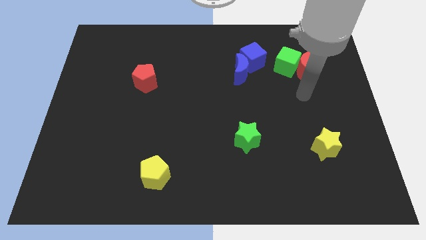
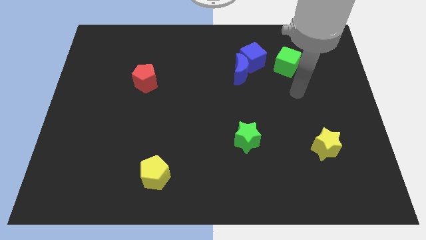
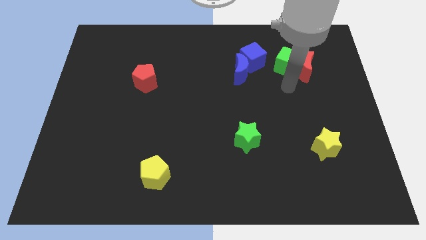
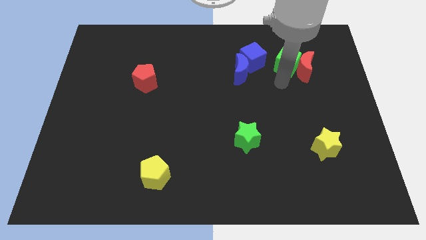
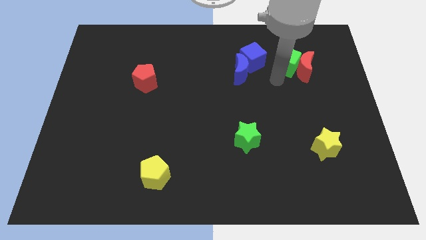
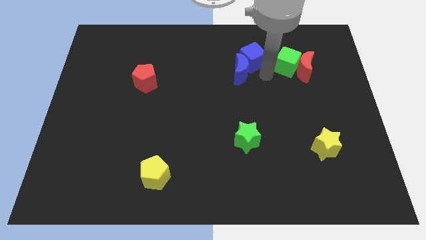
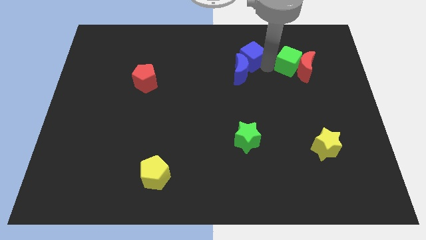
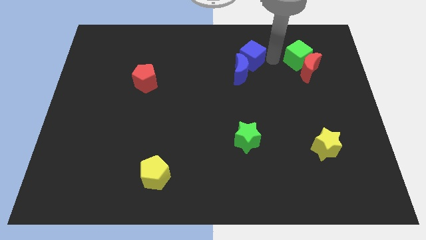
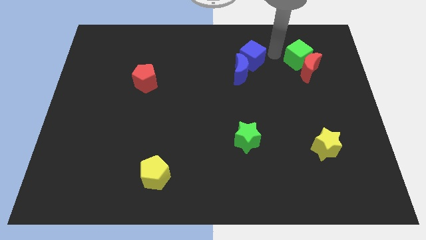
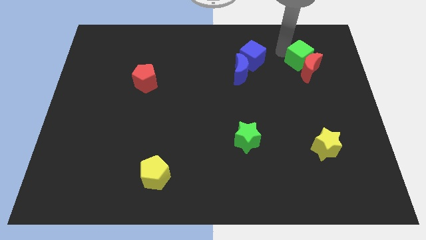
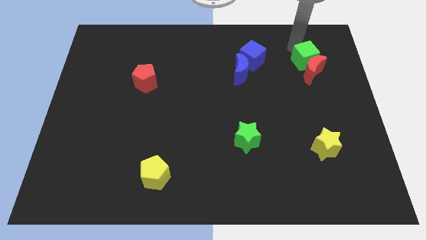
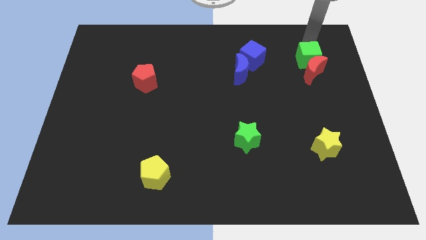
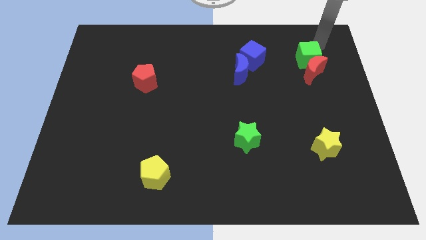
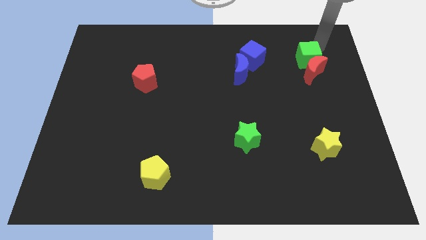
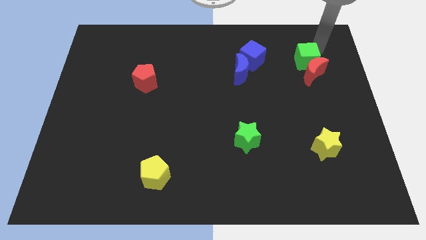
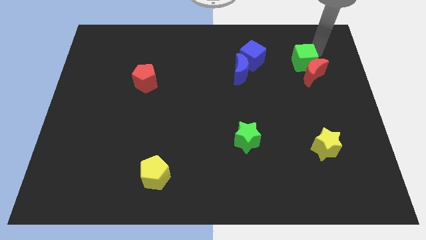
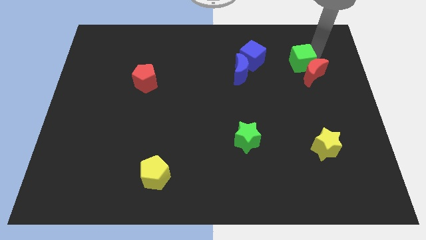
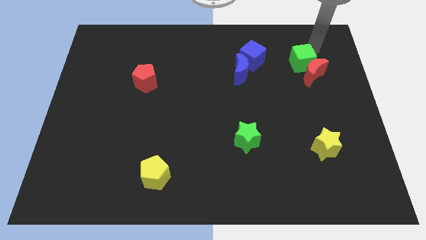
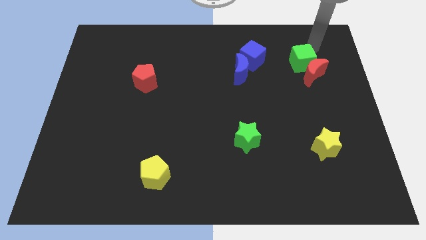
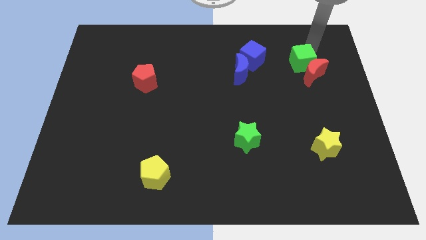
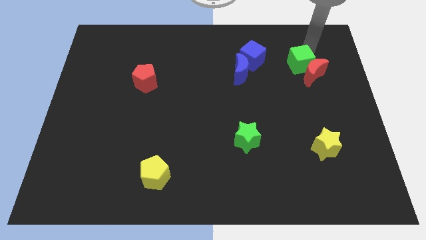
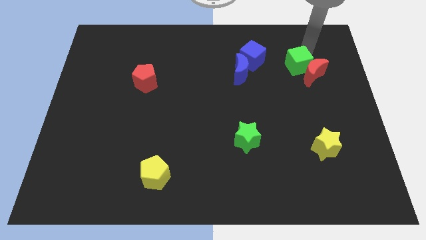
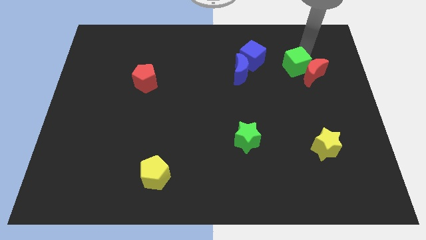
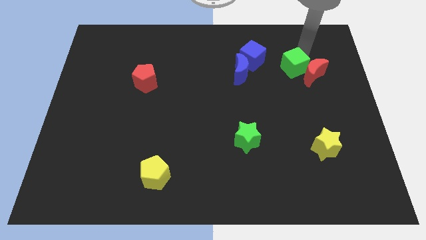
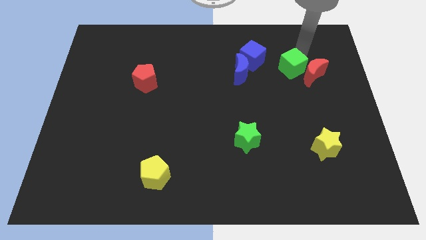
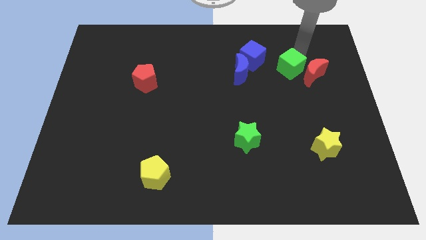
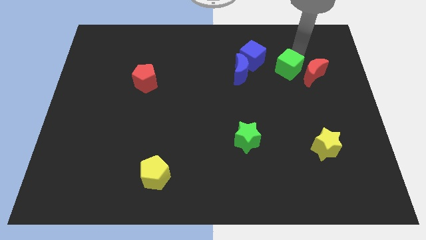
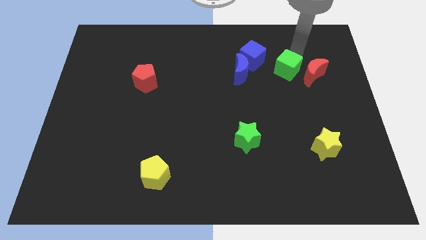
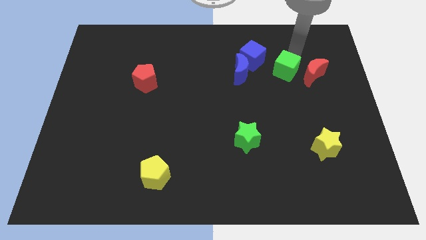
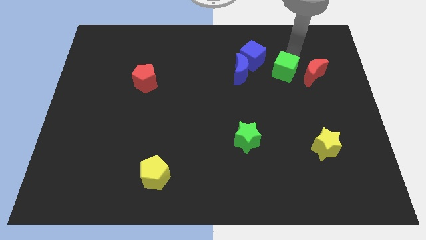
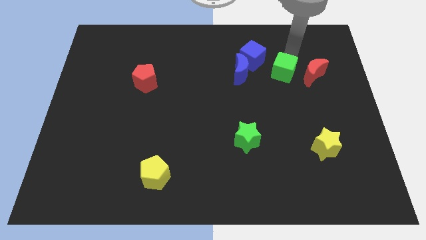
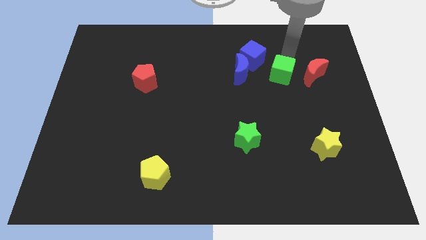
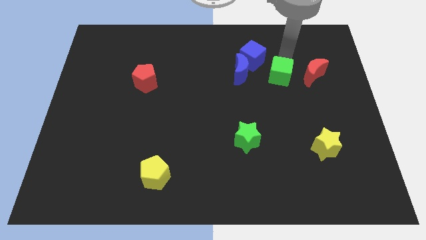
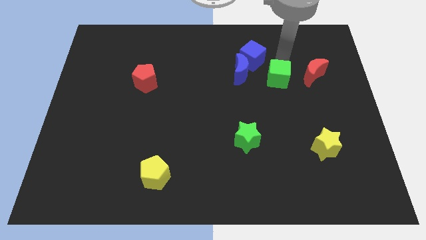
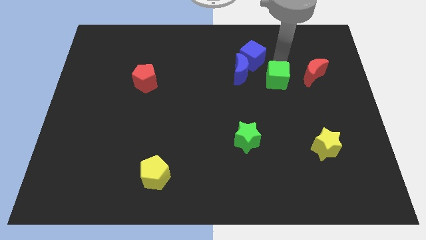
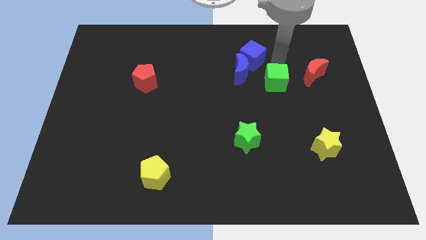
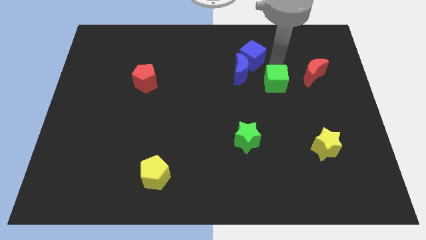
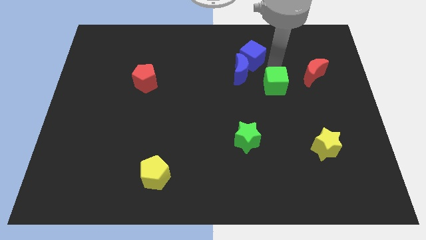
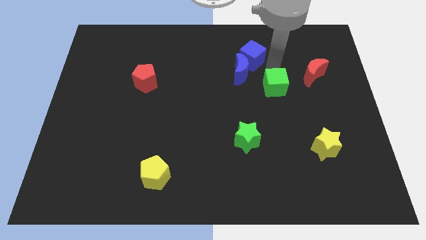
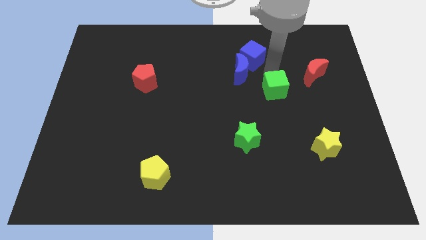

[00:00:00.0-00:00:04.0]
slightly move the green cube down

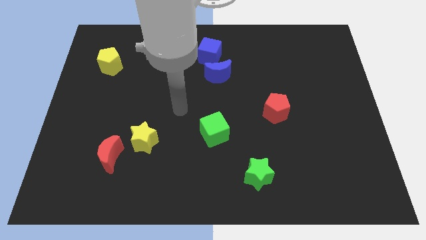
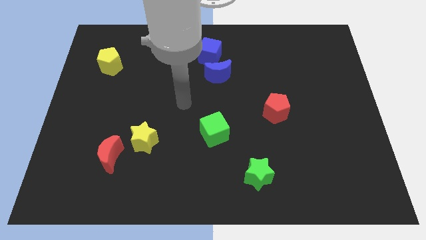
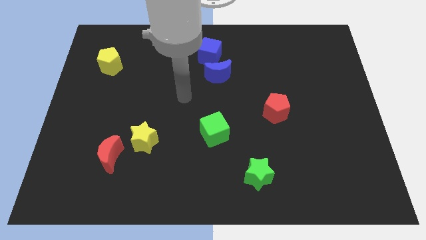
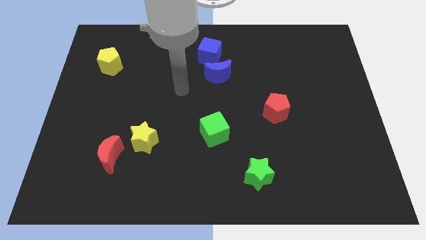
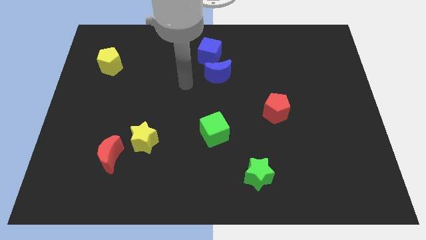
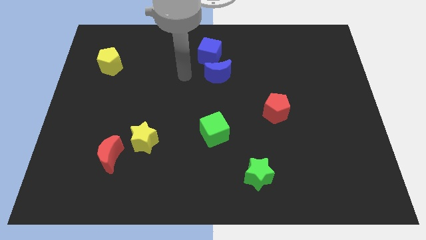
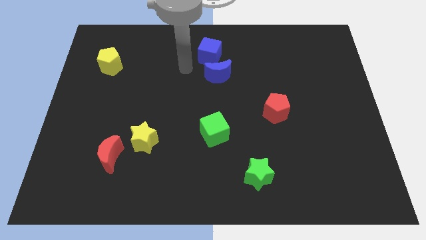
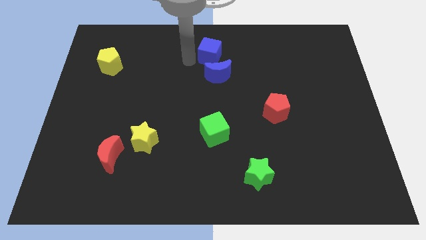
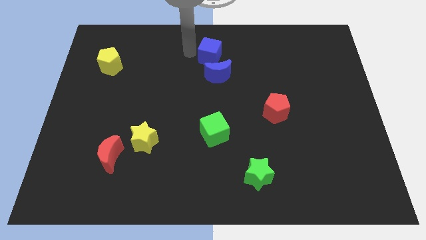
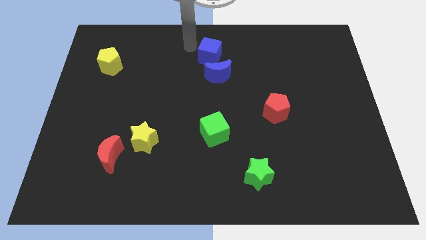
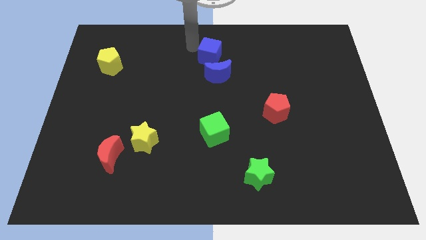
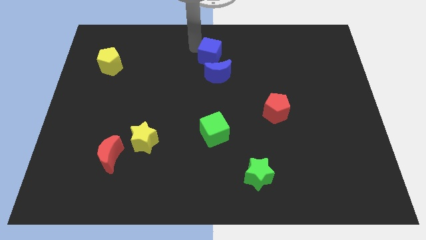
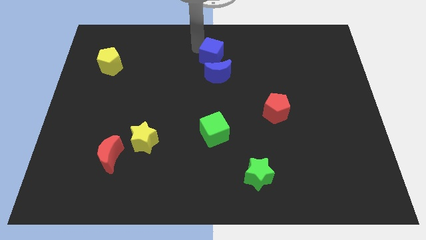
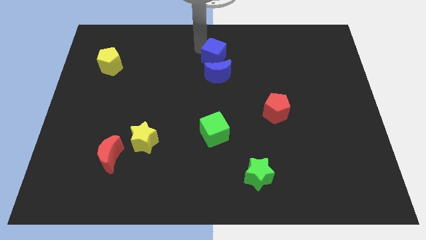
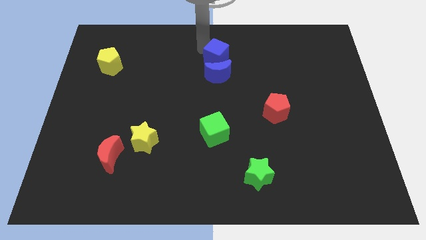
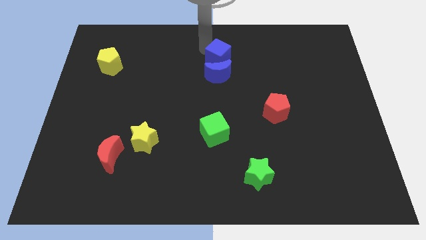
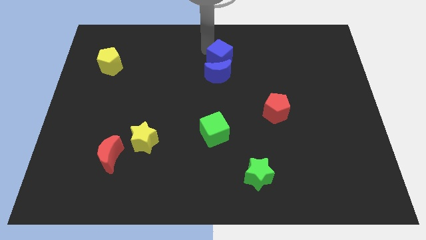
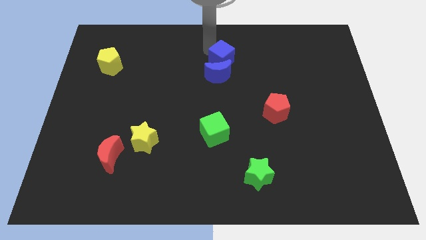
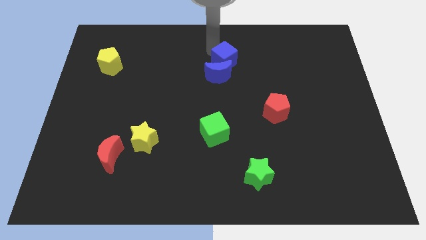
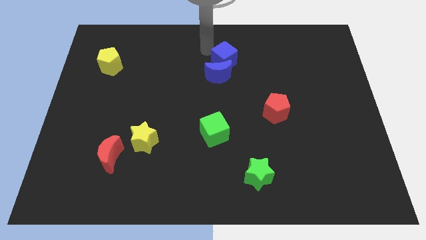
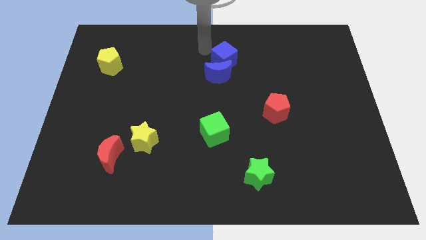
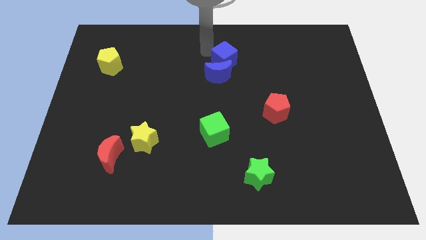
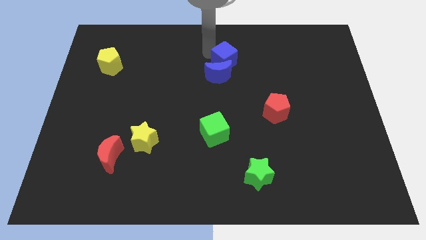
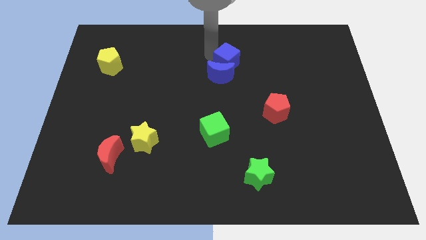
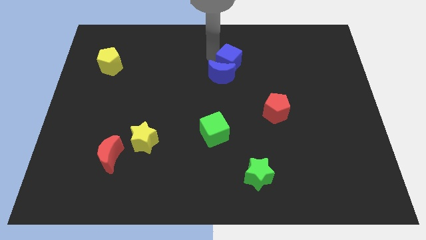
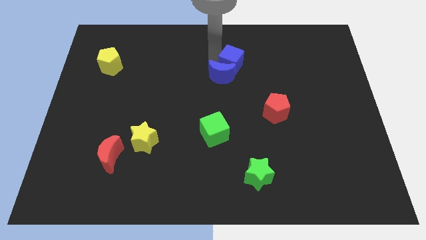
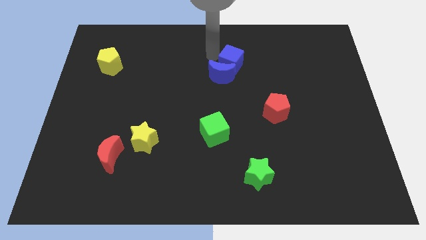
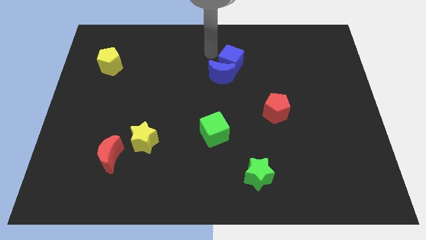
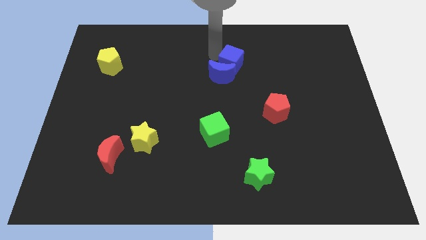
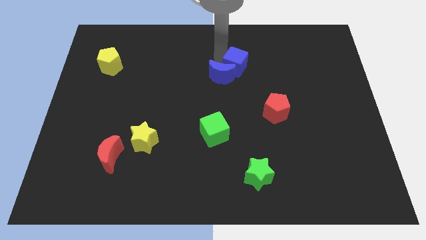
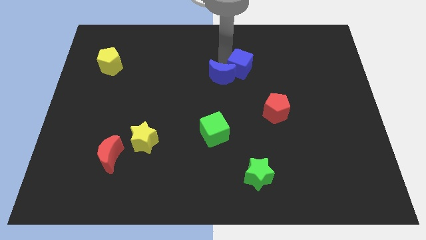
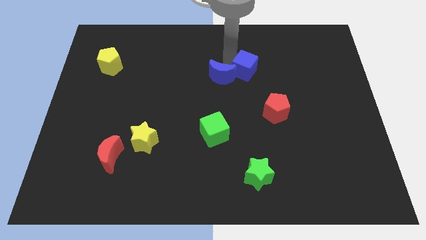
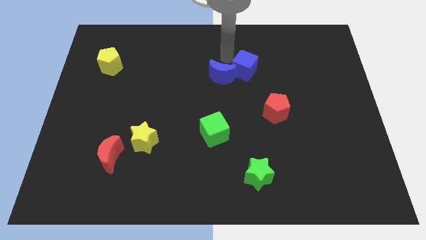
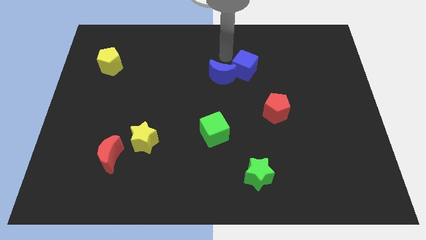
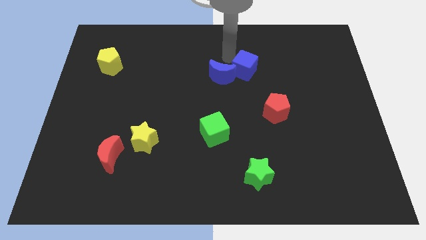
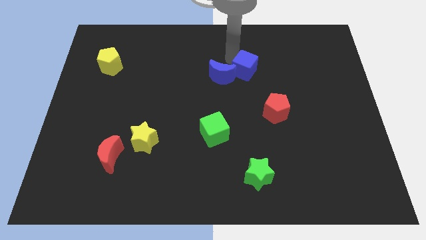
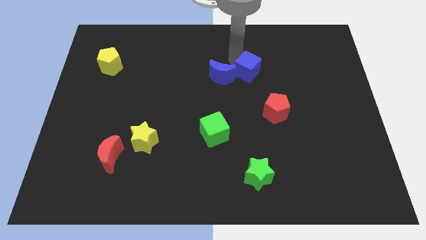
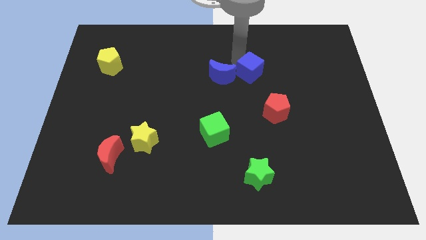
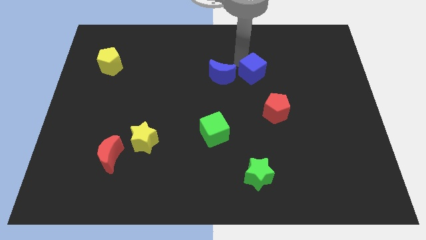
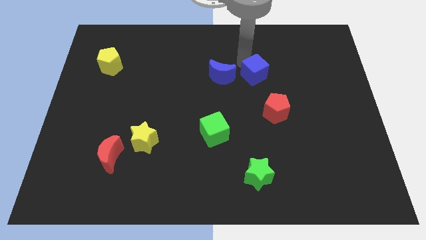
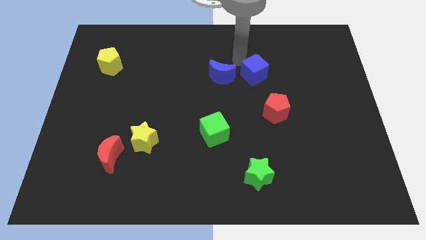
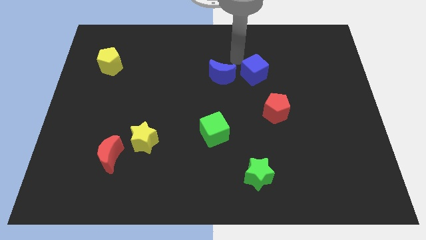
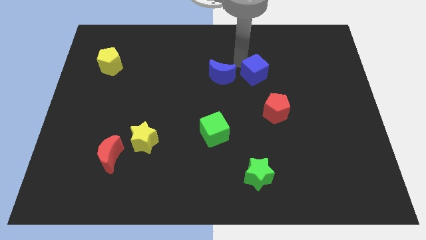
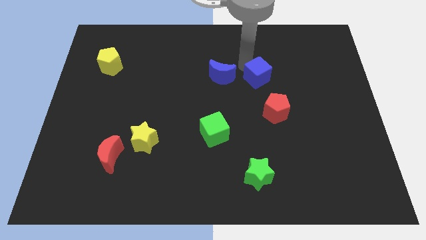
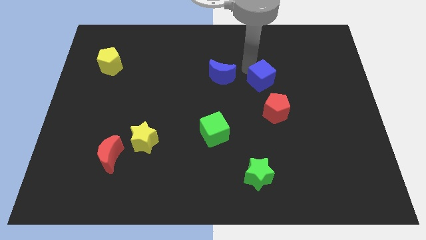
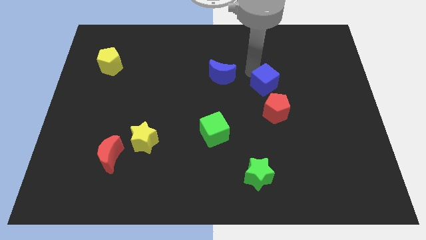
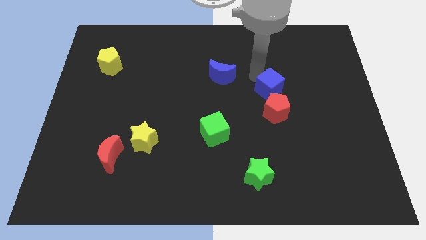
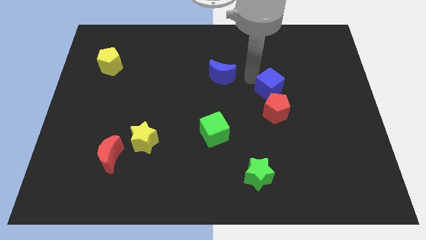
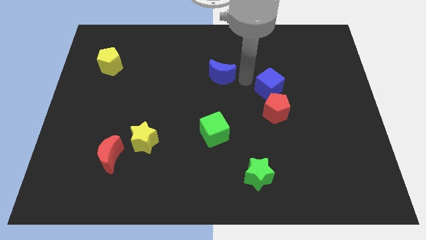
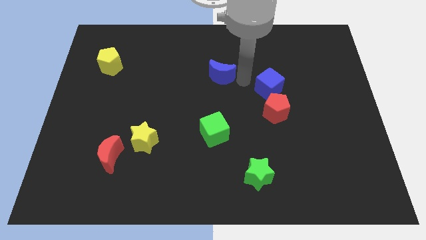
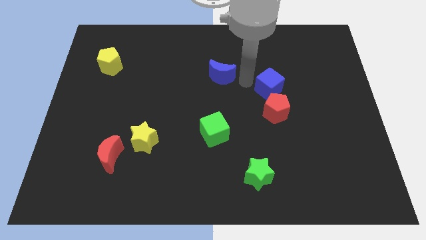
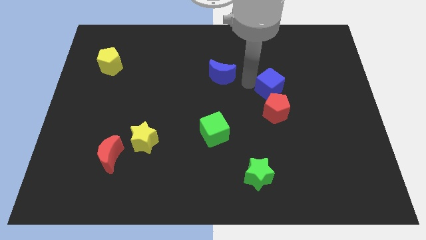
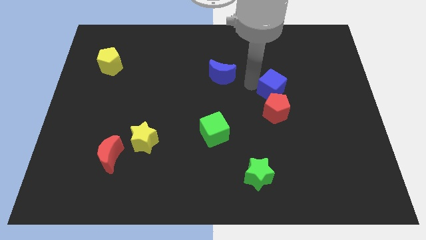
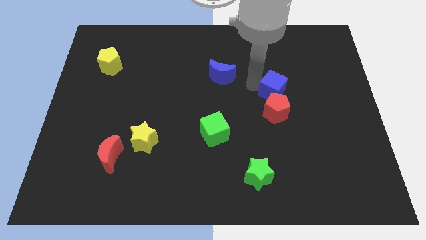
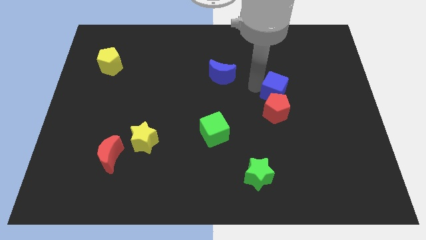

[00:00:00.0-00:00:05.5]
move the blue cube downwards and right diagonally
